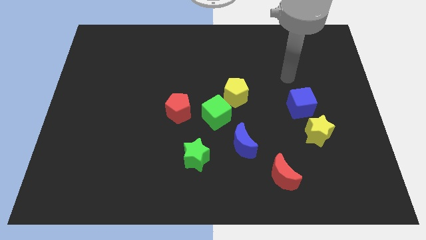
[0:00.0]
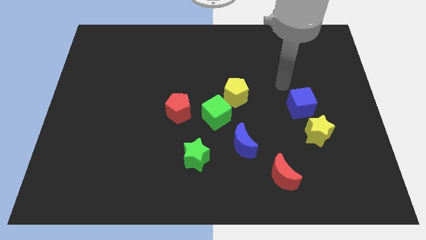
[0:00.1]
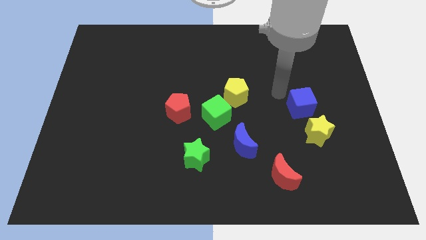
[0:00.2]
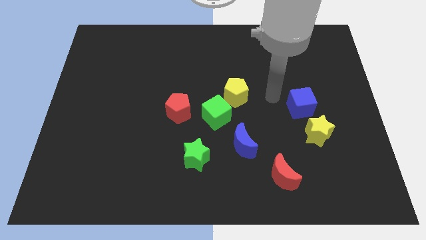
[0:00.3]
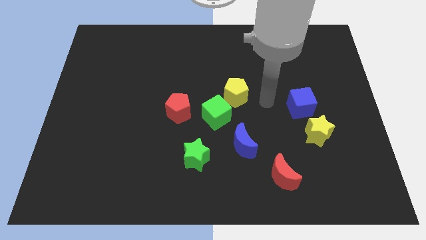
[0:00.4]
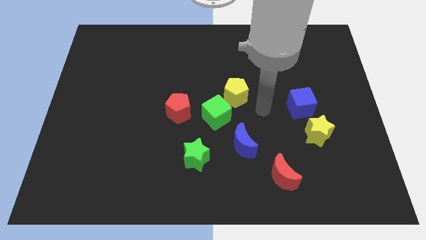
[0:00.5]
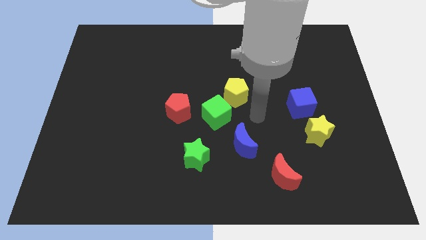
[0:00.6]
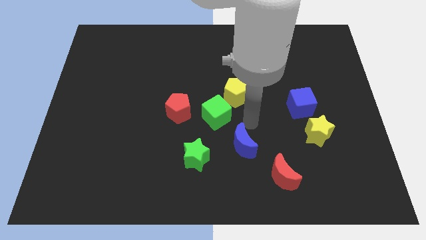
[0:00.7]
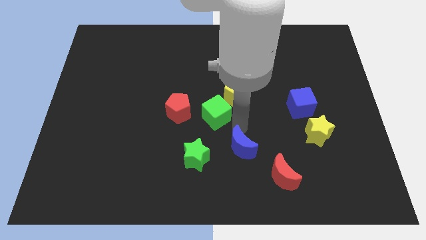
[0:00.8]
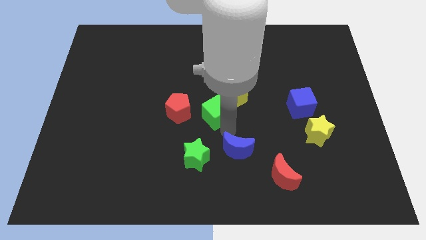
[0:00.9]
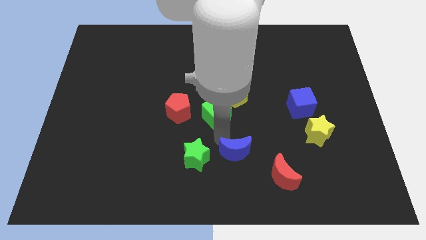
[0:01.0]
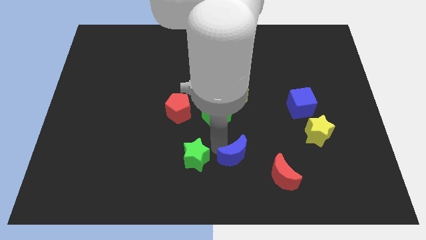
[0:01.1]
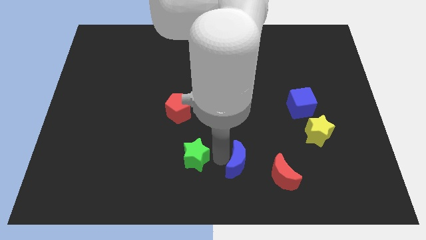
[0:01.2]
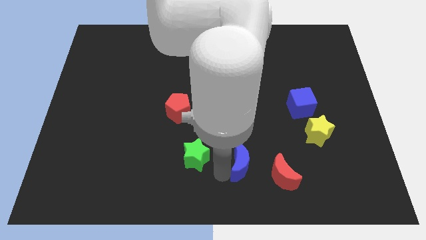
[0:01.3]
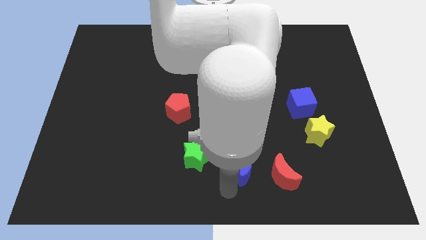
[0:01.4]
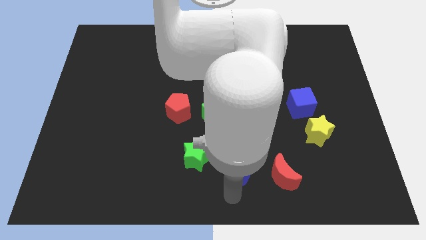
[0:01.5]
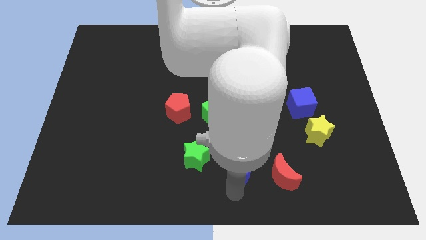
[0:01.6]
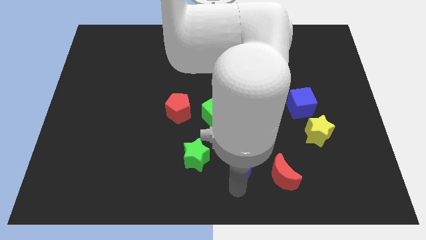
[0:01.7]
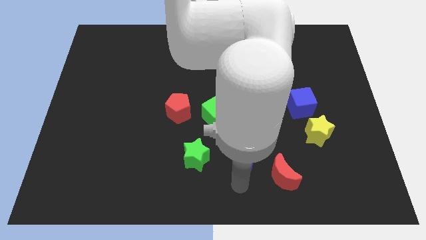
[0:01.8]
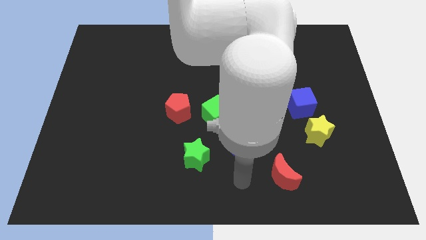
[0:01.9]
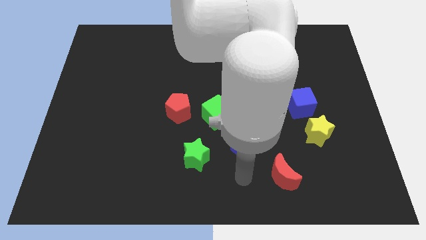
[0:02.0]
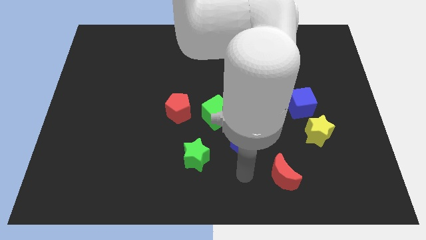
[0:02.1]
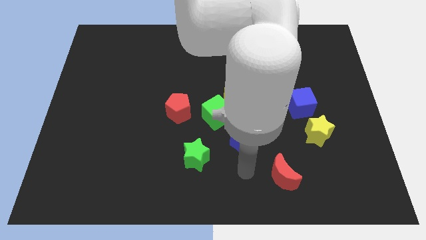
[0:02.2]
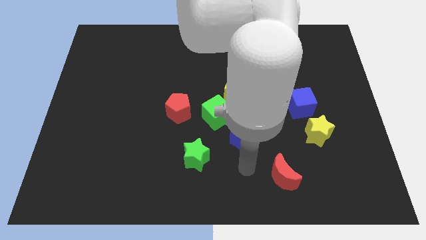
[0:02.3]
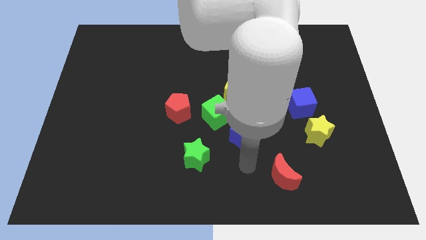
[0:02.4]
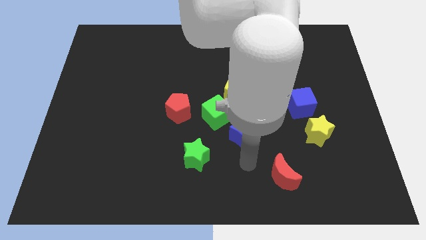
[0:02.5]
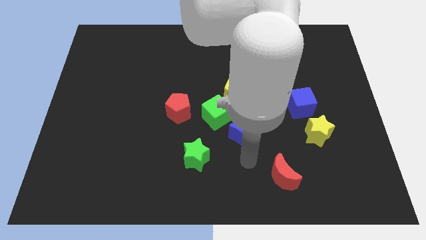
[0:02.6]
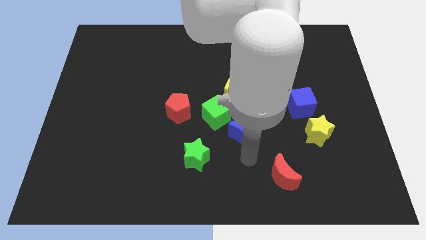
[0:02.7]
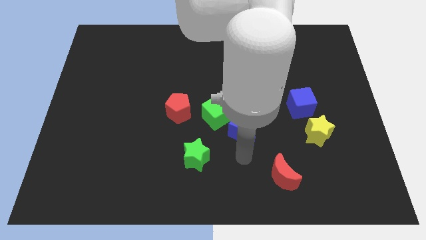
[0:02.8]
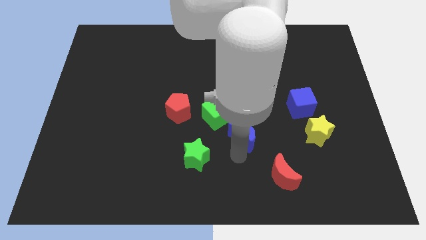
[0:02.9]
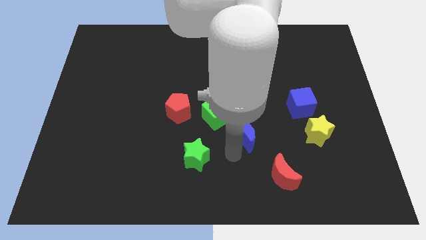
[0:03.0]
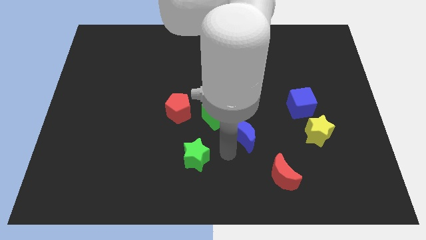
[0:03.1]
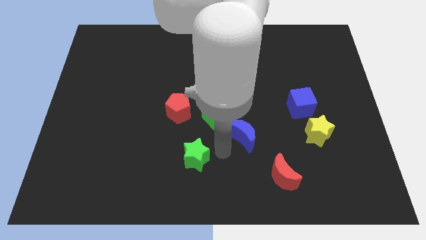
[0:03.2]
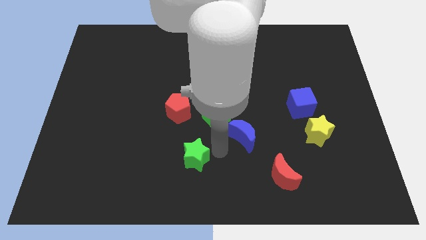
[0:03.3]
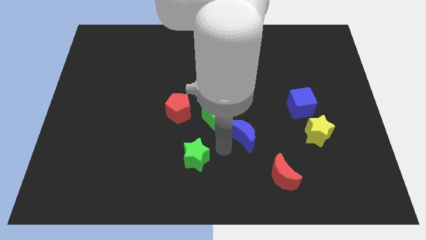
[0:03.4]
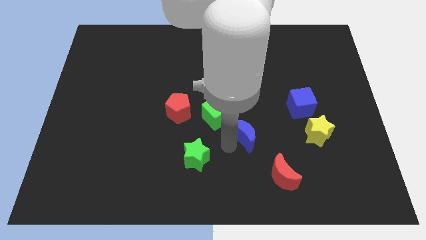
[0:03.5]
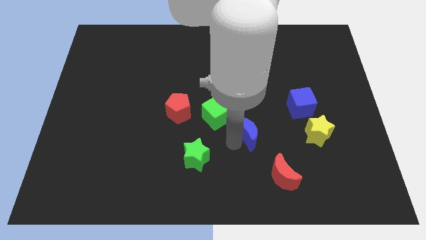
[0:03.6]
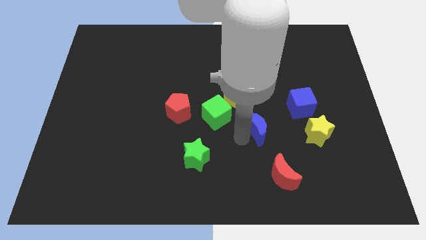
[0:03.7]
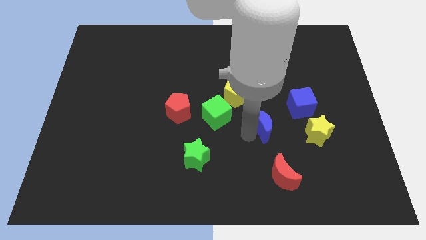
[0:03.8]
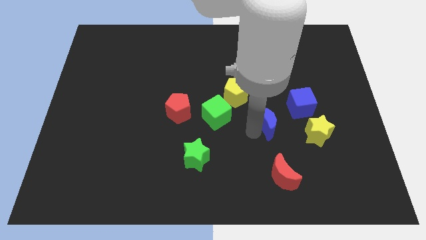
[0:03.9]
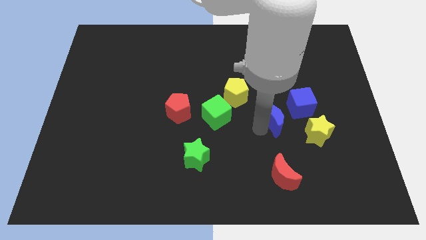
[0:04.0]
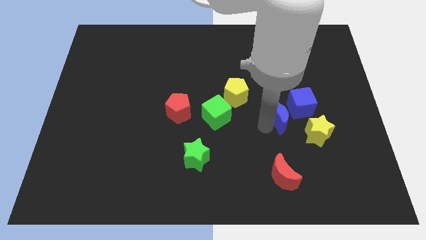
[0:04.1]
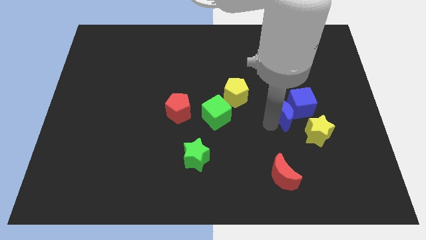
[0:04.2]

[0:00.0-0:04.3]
slide the blue moon to the blue cube

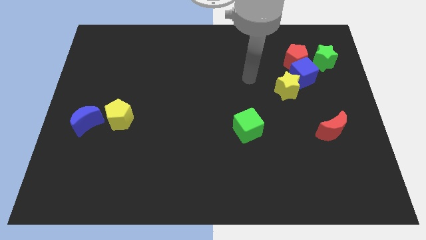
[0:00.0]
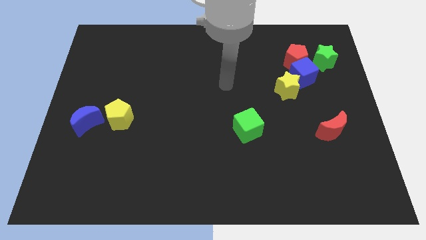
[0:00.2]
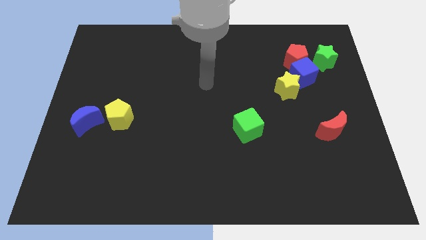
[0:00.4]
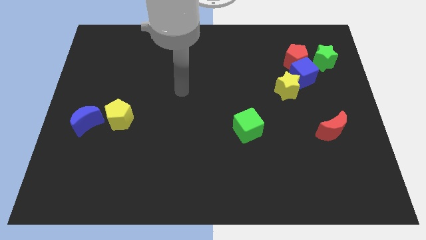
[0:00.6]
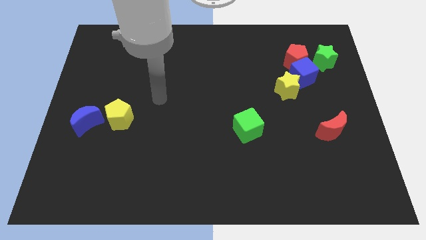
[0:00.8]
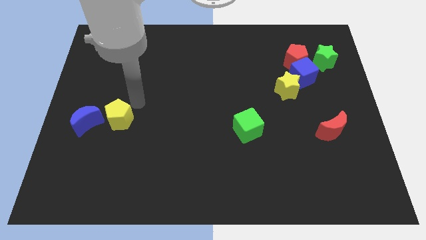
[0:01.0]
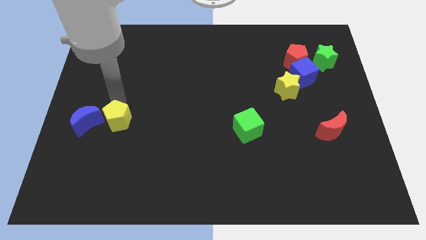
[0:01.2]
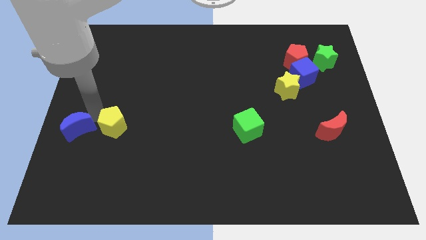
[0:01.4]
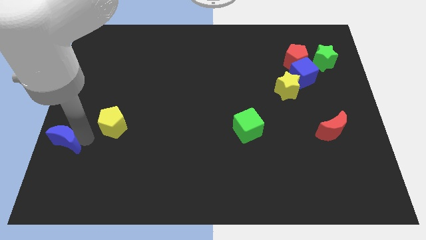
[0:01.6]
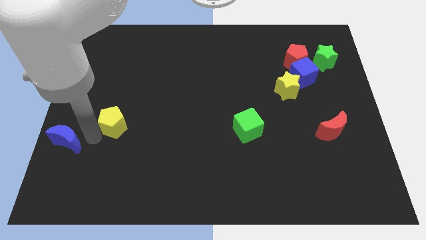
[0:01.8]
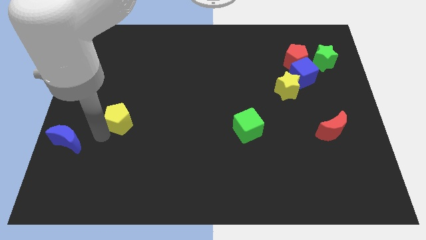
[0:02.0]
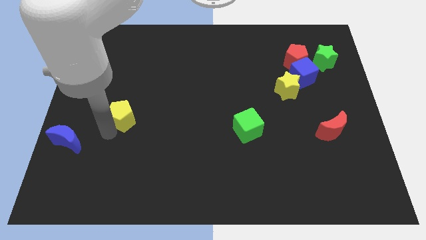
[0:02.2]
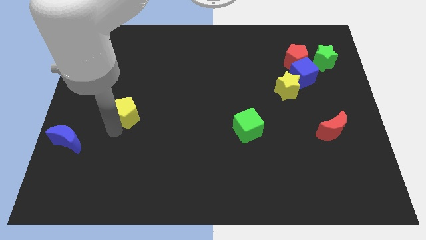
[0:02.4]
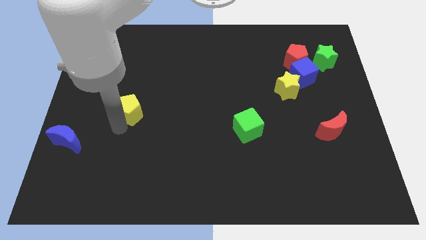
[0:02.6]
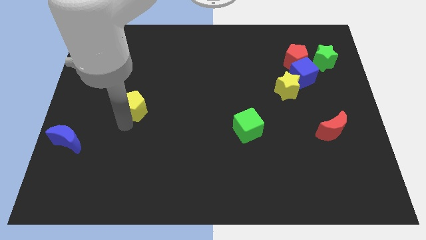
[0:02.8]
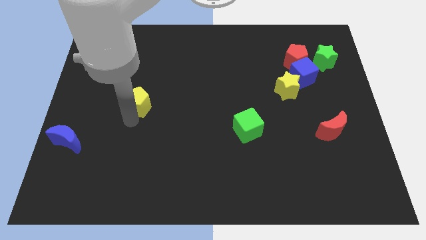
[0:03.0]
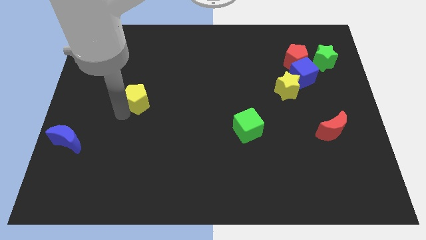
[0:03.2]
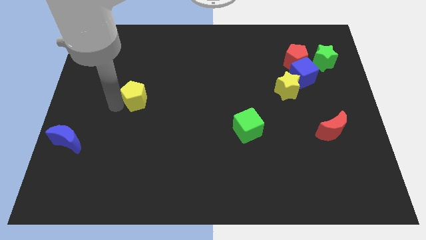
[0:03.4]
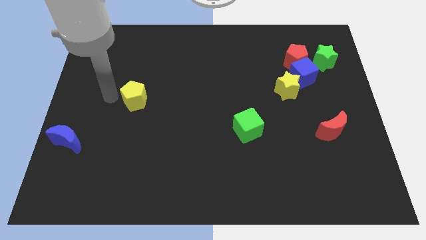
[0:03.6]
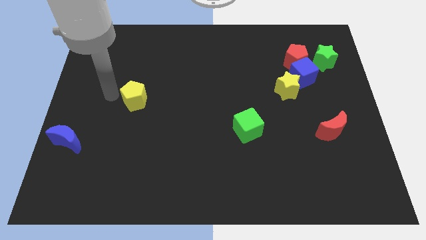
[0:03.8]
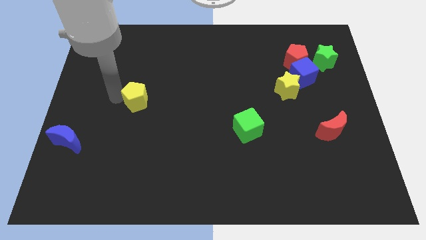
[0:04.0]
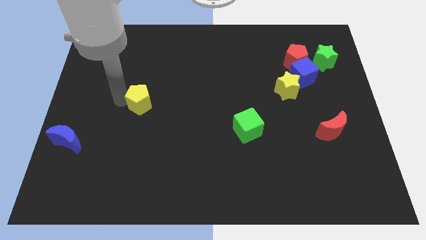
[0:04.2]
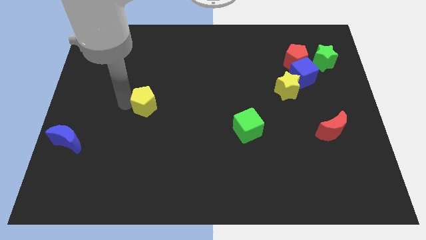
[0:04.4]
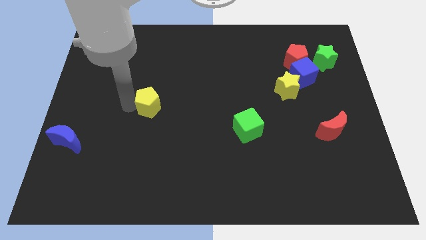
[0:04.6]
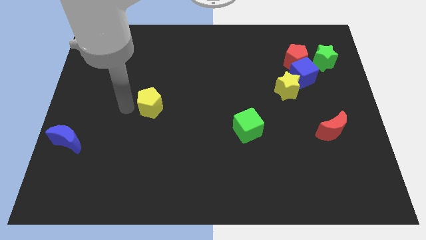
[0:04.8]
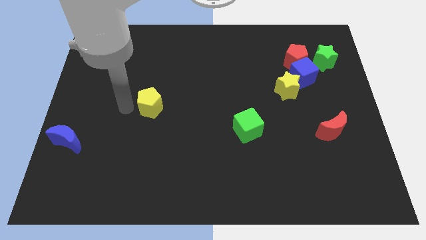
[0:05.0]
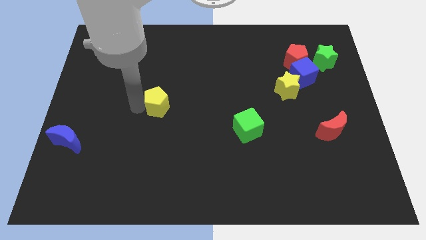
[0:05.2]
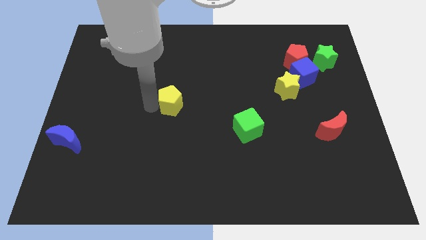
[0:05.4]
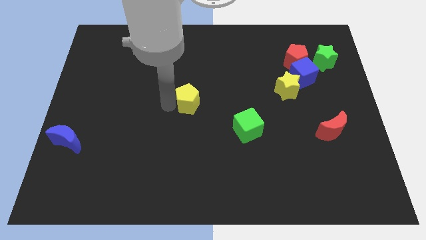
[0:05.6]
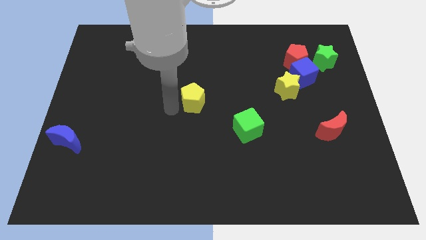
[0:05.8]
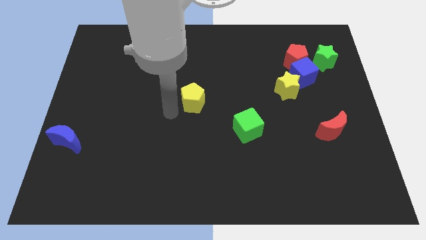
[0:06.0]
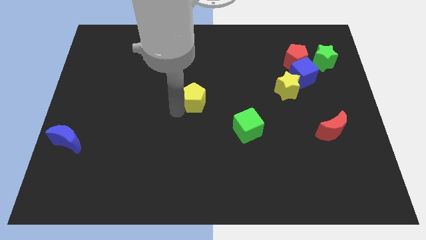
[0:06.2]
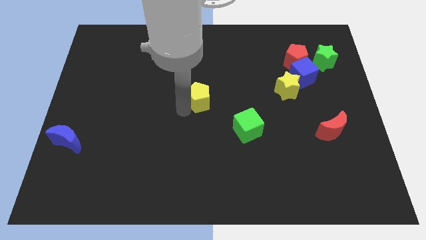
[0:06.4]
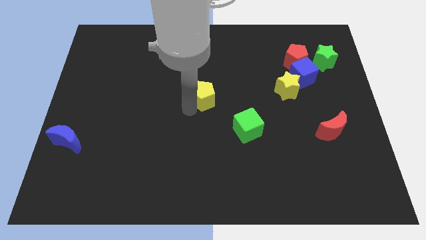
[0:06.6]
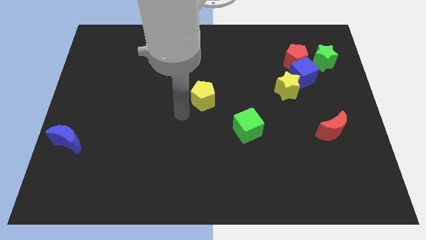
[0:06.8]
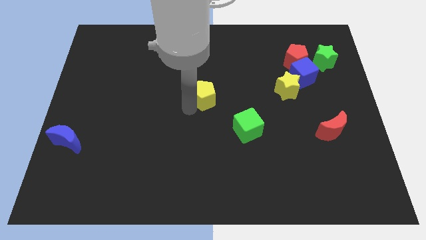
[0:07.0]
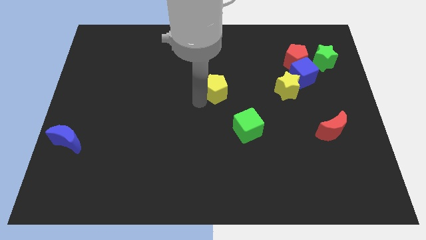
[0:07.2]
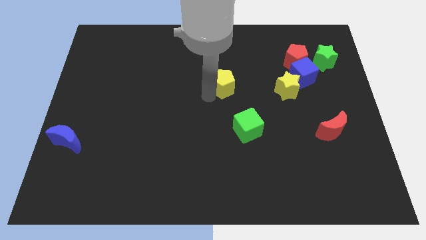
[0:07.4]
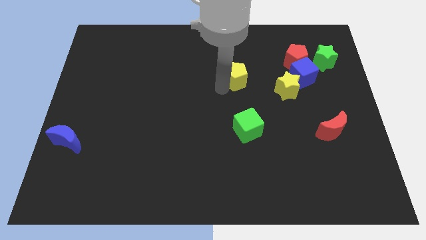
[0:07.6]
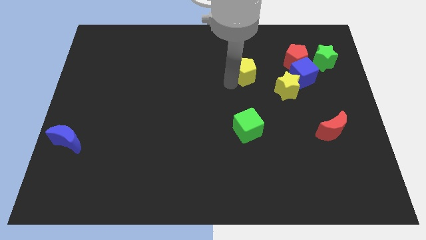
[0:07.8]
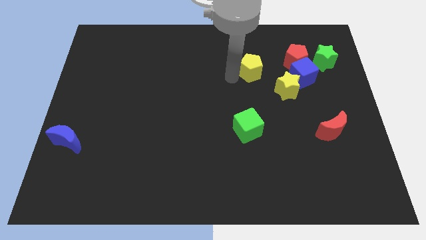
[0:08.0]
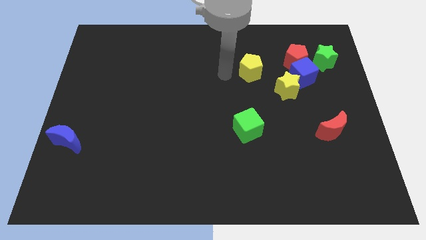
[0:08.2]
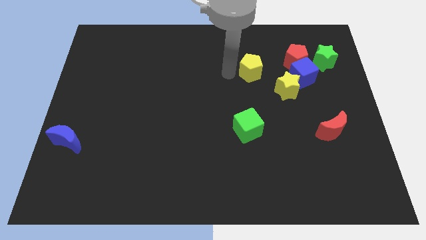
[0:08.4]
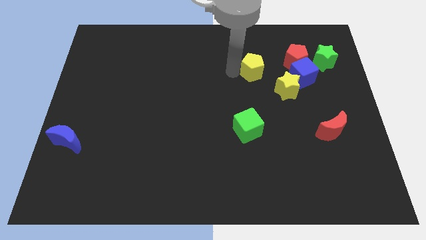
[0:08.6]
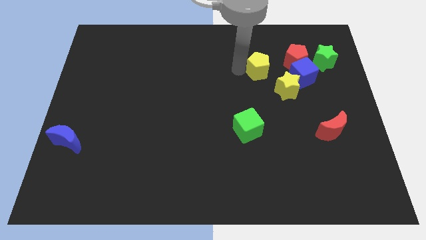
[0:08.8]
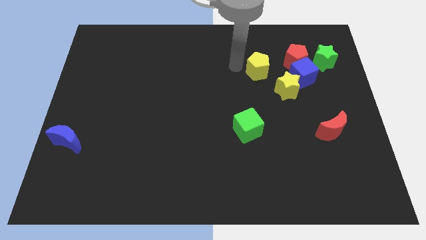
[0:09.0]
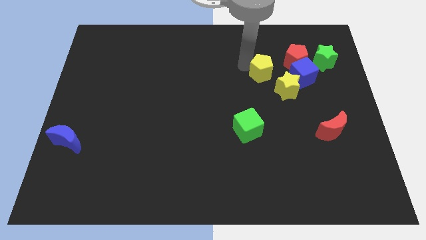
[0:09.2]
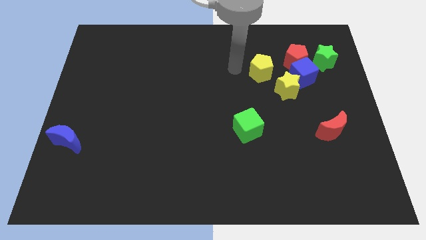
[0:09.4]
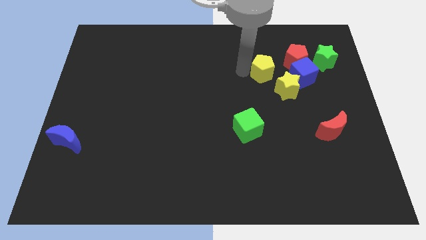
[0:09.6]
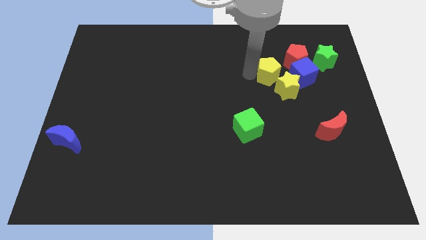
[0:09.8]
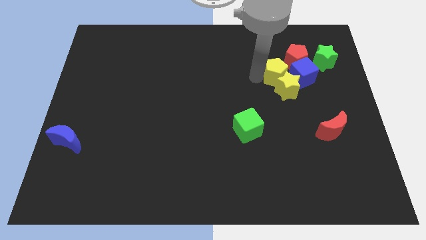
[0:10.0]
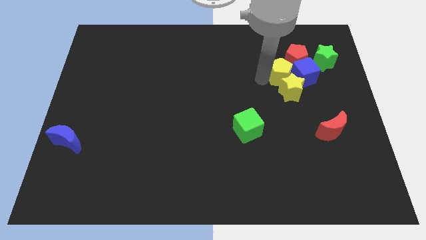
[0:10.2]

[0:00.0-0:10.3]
move the yellow pentagon close to the blue cube
